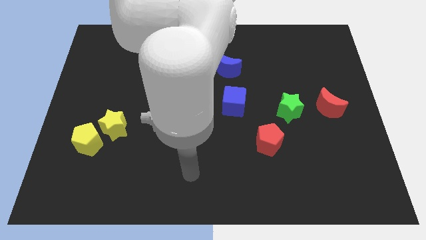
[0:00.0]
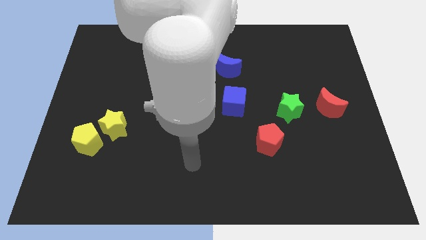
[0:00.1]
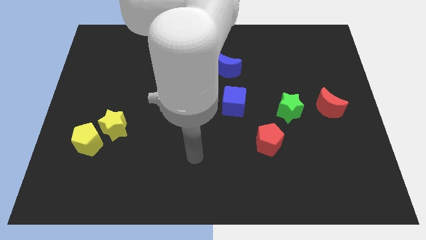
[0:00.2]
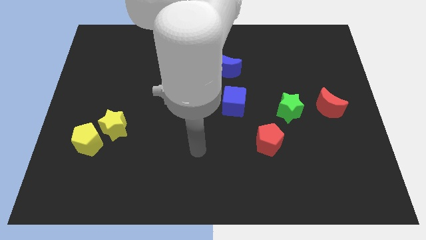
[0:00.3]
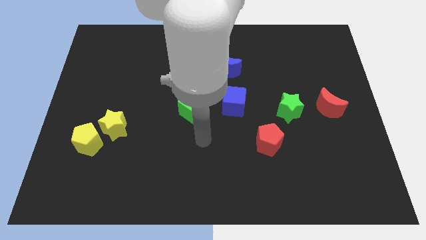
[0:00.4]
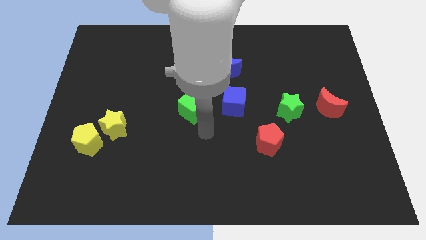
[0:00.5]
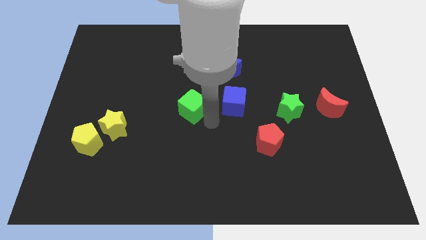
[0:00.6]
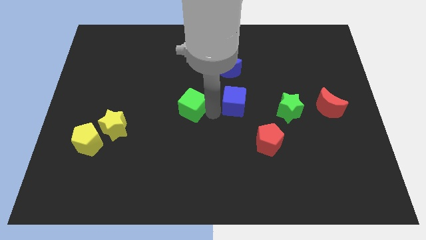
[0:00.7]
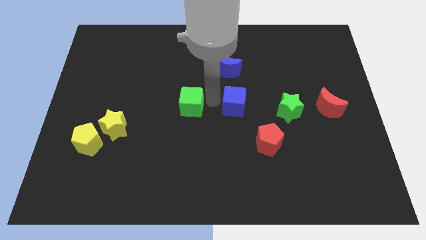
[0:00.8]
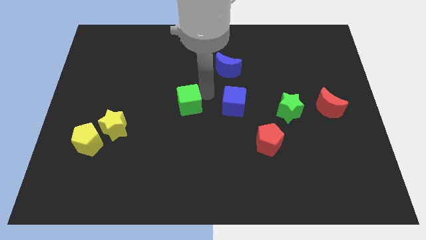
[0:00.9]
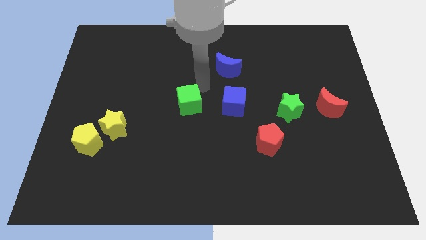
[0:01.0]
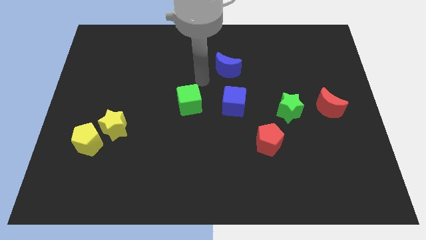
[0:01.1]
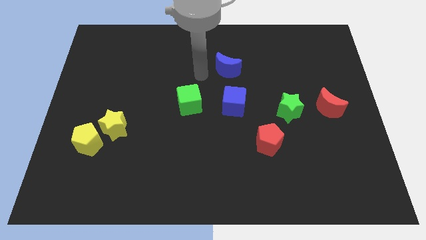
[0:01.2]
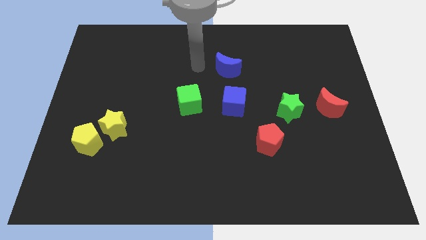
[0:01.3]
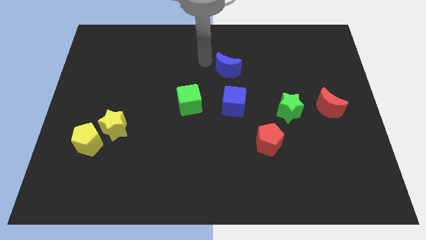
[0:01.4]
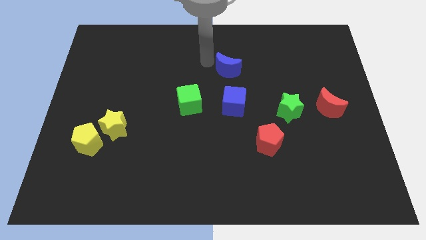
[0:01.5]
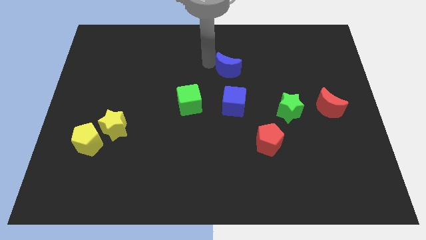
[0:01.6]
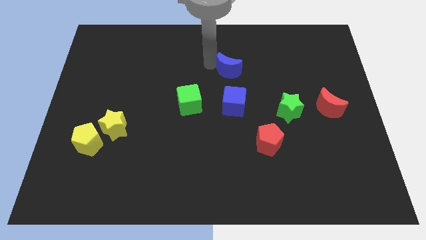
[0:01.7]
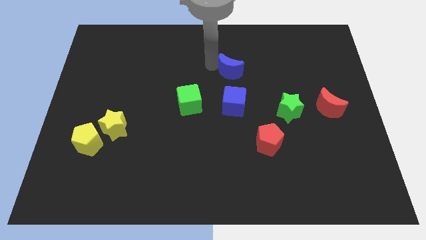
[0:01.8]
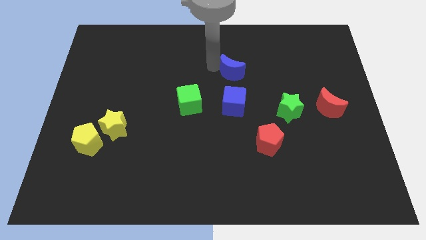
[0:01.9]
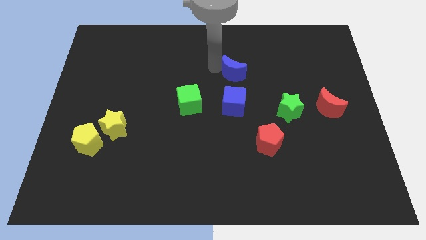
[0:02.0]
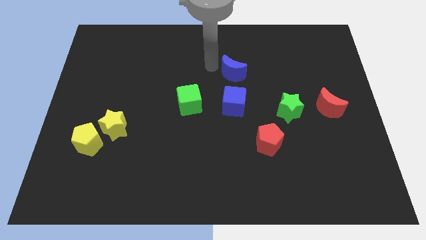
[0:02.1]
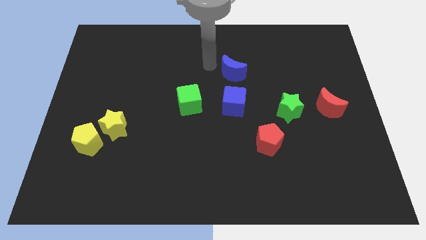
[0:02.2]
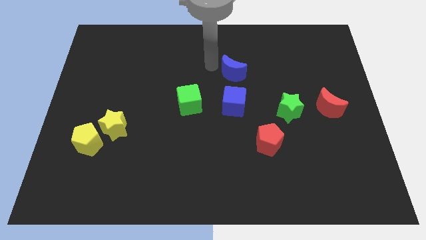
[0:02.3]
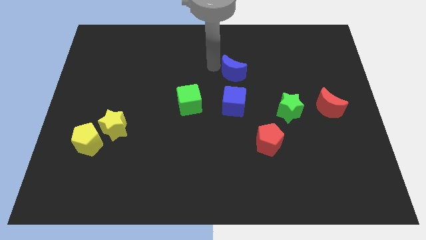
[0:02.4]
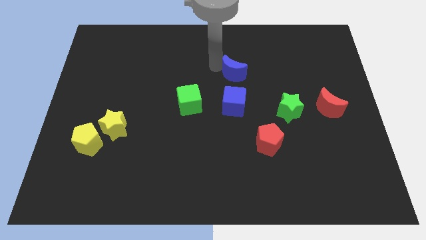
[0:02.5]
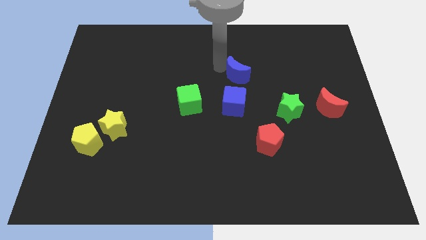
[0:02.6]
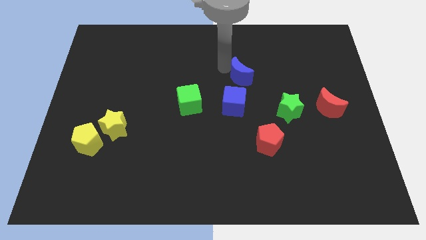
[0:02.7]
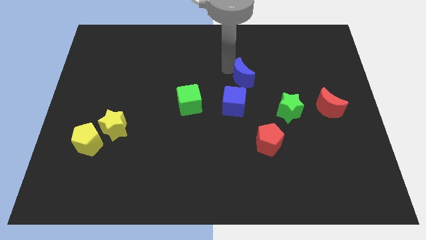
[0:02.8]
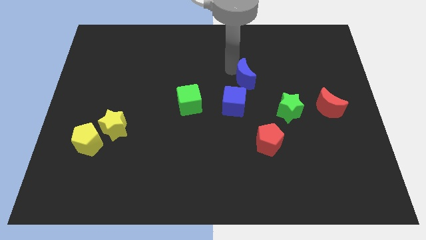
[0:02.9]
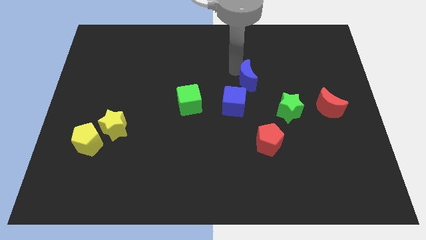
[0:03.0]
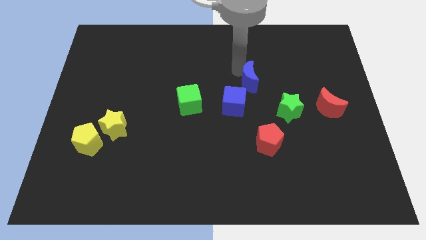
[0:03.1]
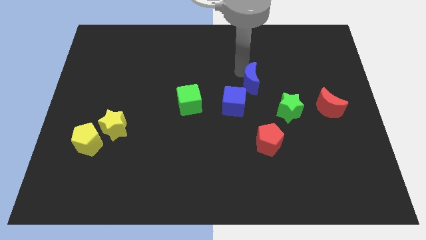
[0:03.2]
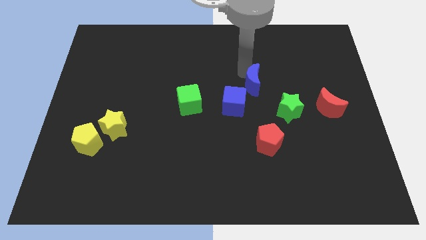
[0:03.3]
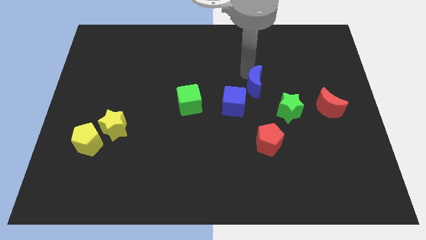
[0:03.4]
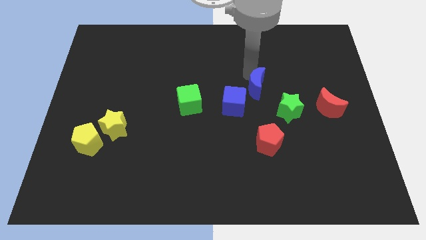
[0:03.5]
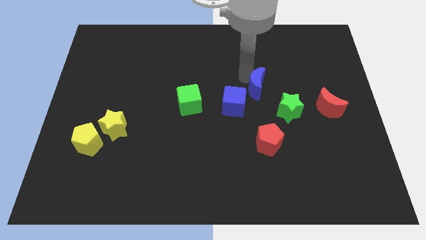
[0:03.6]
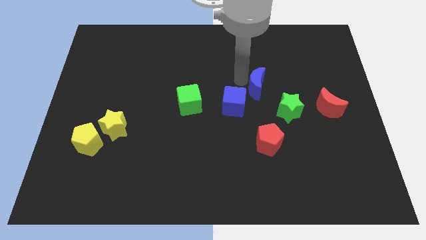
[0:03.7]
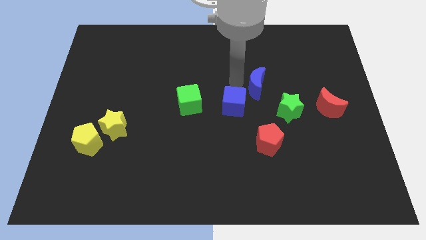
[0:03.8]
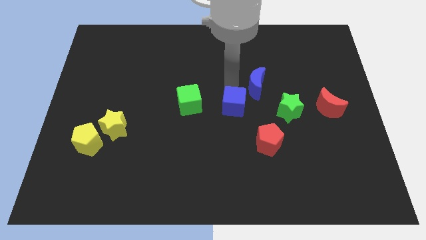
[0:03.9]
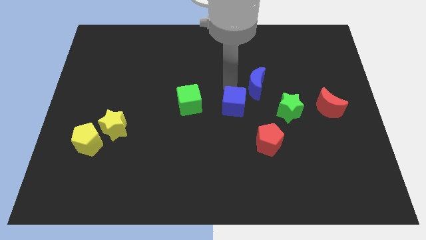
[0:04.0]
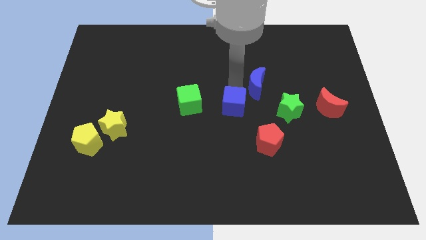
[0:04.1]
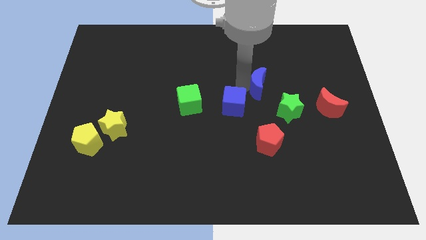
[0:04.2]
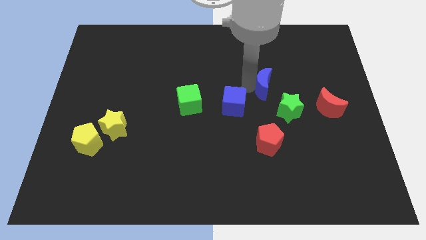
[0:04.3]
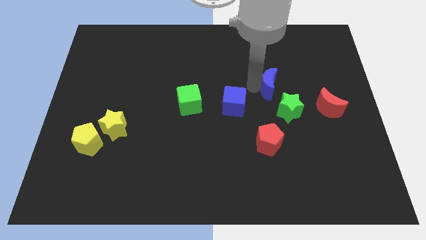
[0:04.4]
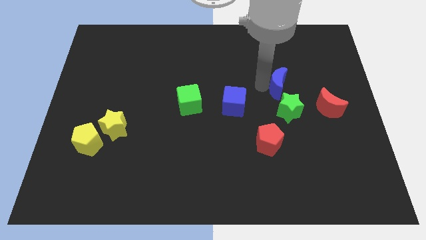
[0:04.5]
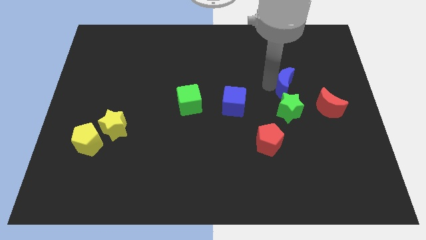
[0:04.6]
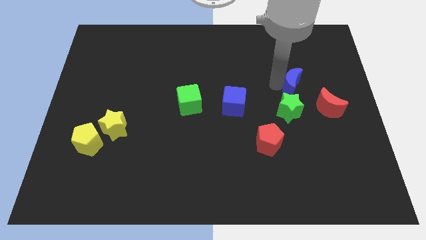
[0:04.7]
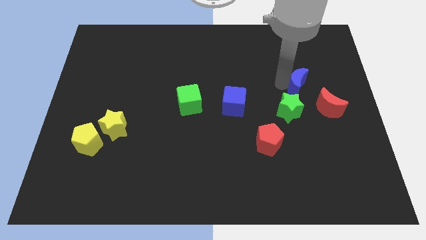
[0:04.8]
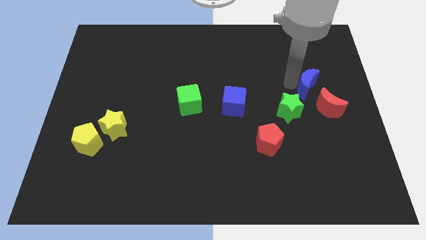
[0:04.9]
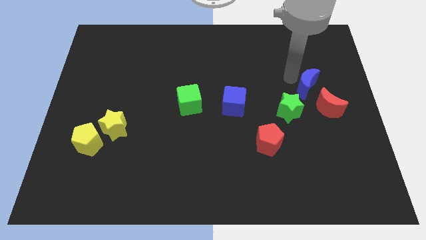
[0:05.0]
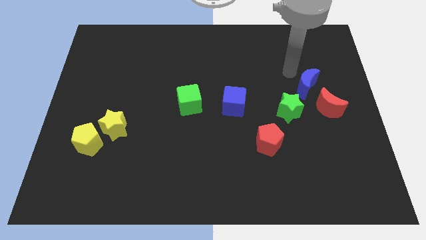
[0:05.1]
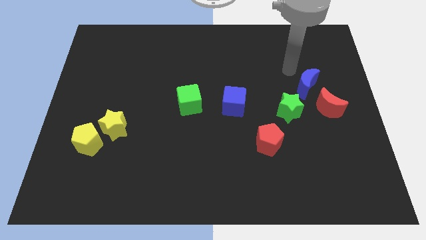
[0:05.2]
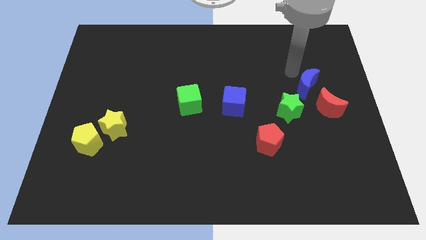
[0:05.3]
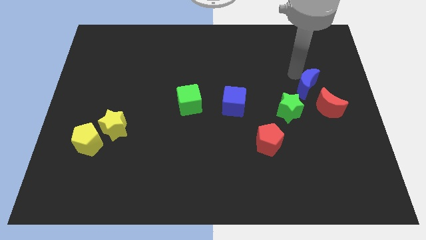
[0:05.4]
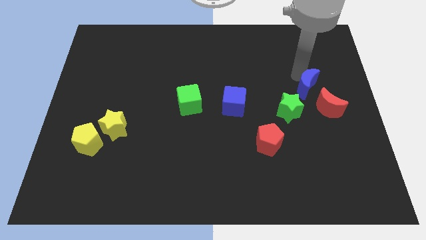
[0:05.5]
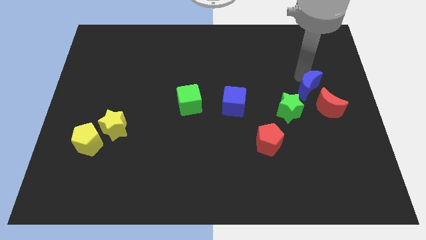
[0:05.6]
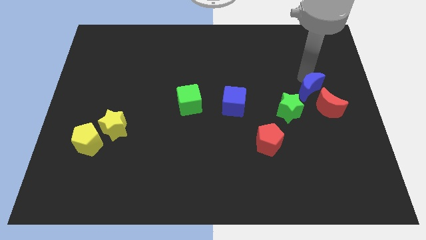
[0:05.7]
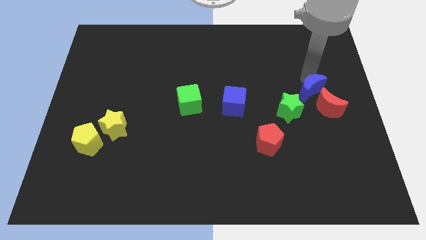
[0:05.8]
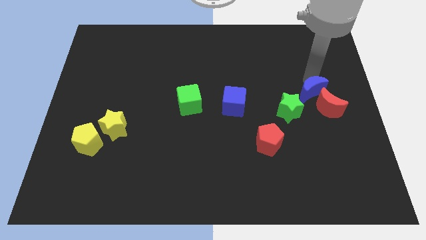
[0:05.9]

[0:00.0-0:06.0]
put the blue moon to the red moon

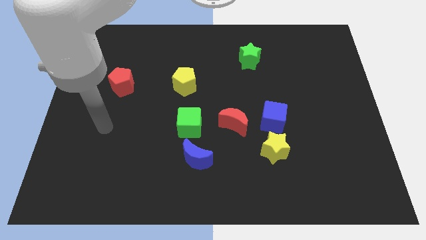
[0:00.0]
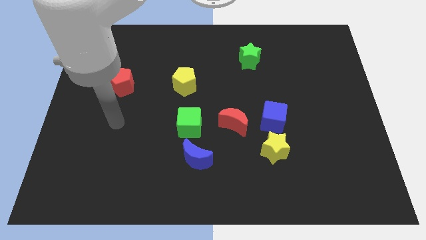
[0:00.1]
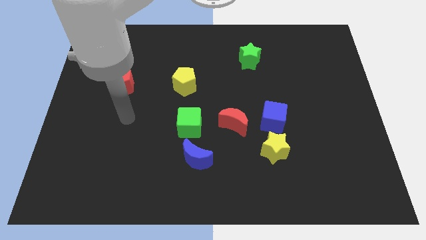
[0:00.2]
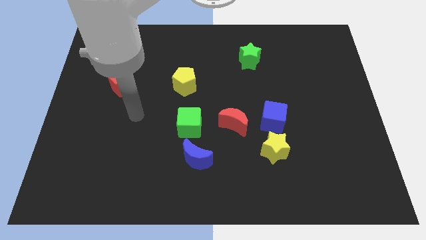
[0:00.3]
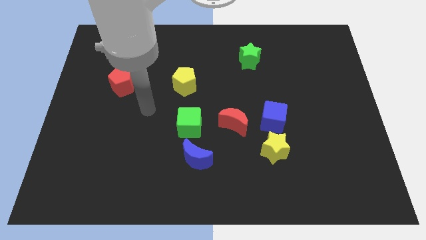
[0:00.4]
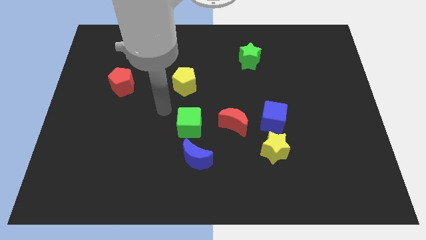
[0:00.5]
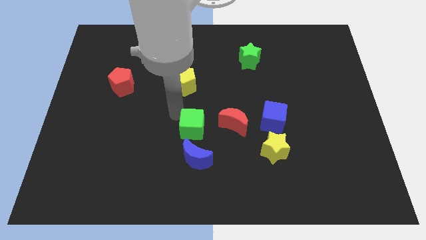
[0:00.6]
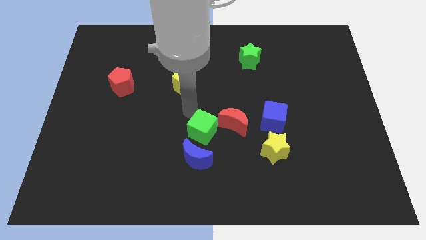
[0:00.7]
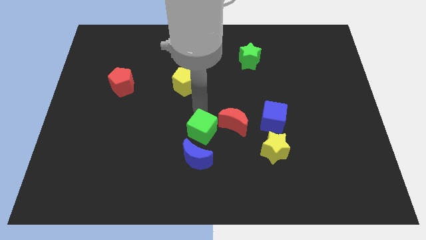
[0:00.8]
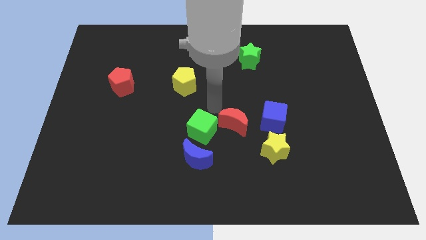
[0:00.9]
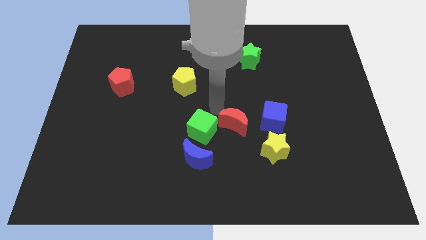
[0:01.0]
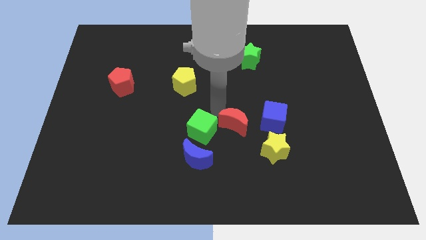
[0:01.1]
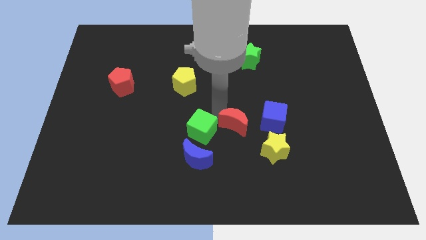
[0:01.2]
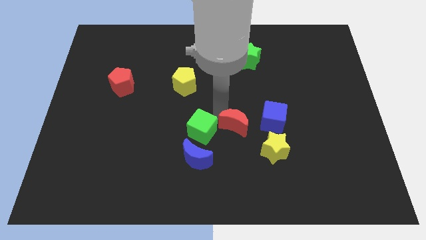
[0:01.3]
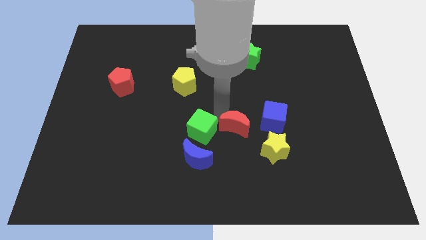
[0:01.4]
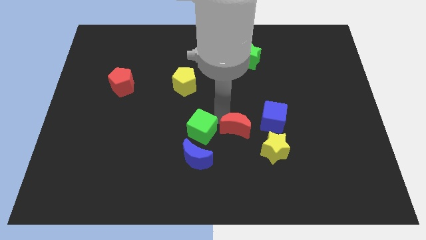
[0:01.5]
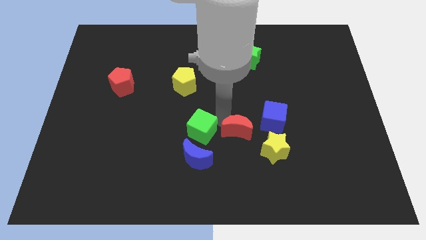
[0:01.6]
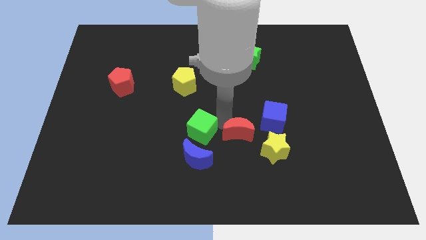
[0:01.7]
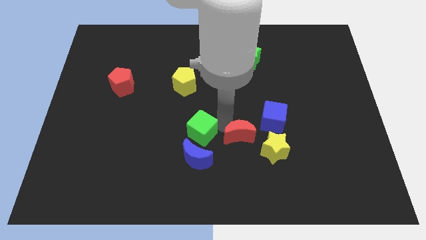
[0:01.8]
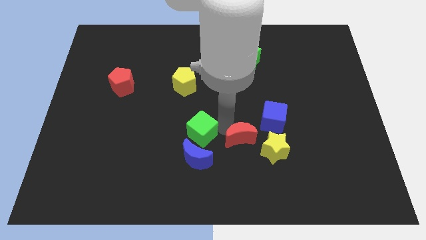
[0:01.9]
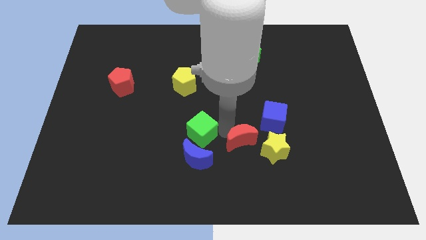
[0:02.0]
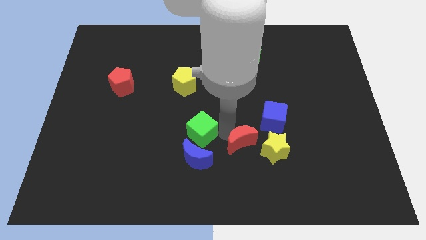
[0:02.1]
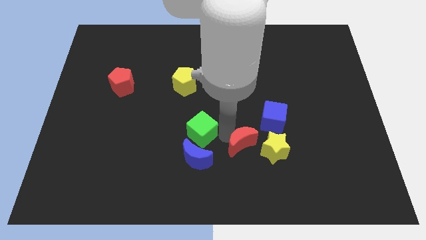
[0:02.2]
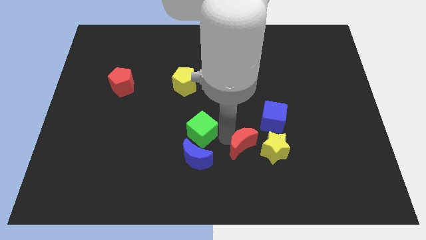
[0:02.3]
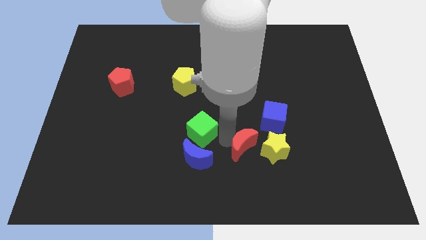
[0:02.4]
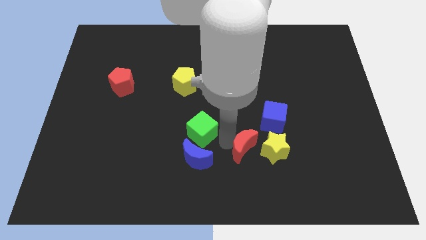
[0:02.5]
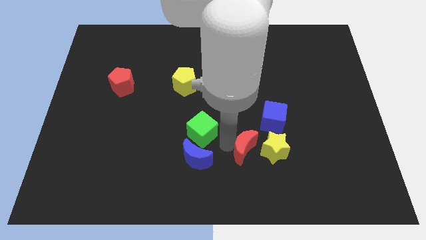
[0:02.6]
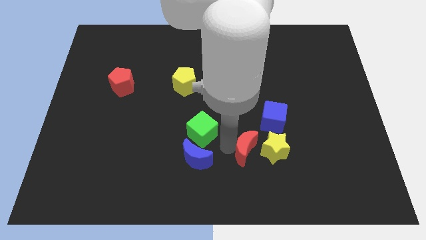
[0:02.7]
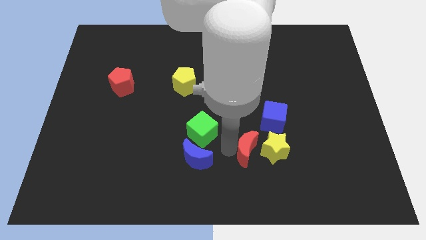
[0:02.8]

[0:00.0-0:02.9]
push the red moon towards the yellow star
